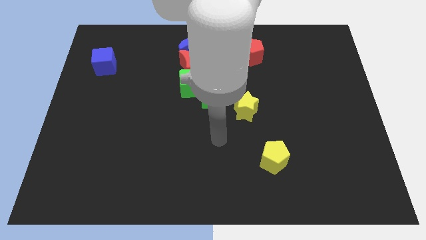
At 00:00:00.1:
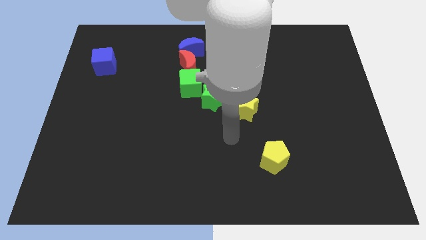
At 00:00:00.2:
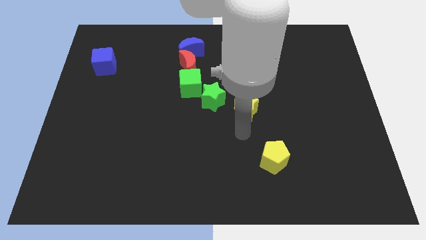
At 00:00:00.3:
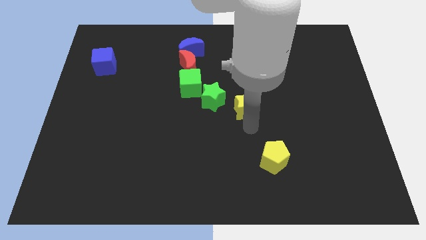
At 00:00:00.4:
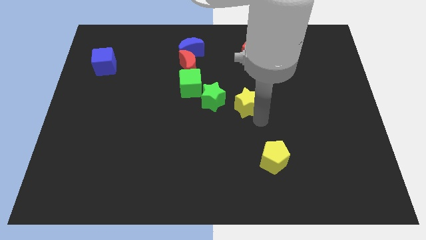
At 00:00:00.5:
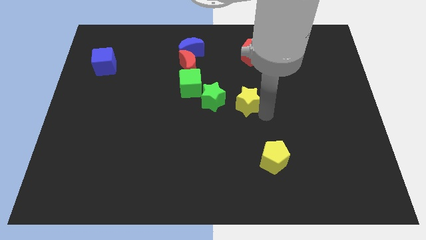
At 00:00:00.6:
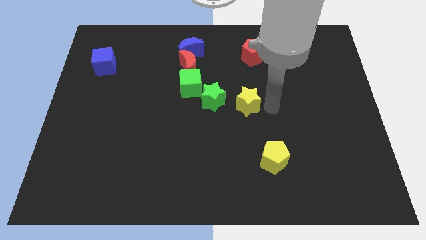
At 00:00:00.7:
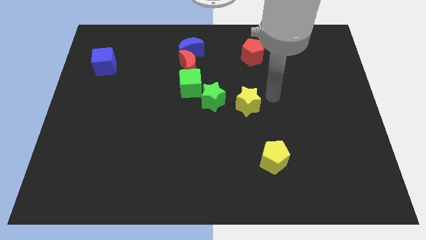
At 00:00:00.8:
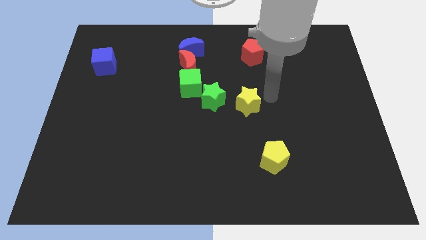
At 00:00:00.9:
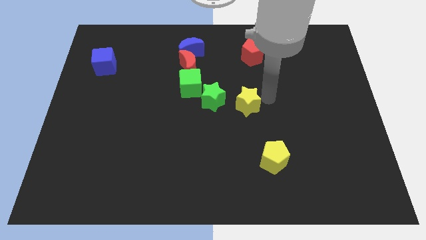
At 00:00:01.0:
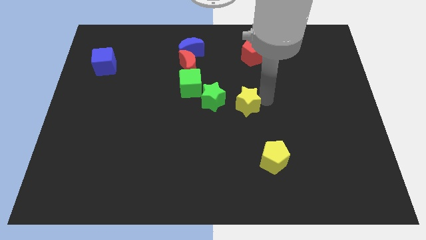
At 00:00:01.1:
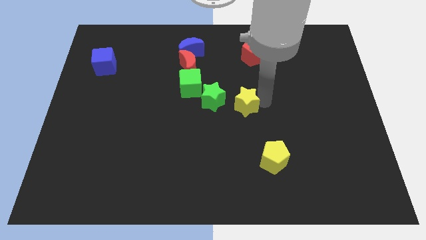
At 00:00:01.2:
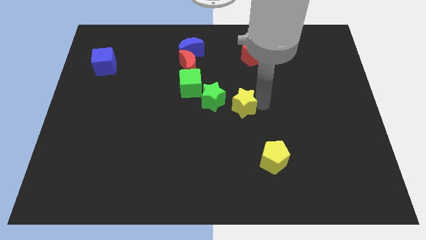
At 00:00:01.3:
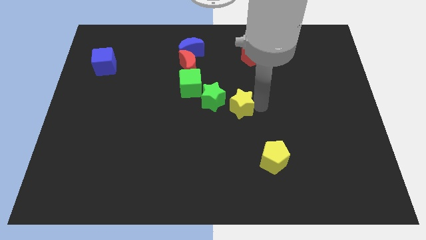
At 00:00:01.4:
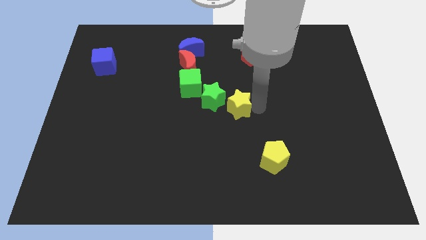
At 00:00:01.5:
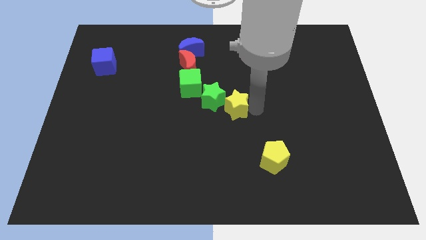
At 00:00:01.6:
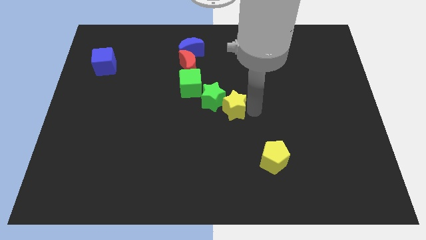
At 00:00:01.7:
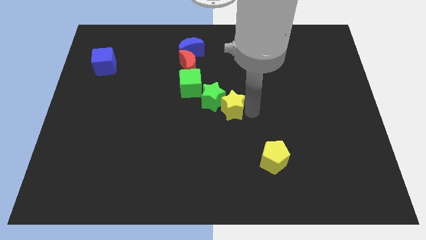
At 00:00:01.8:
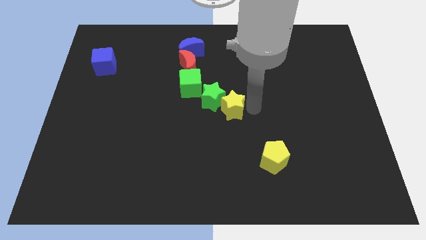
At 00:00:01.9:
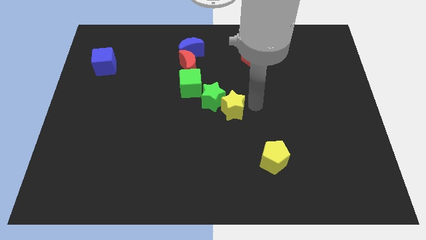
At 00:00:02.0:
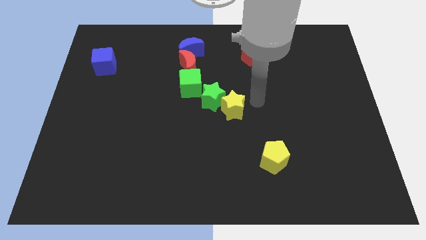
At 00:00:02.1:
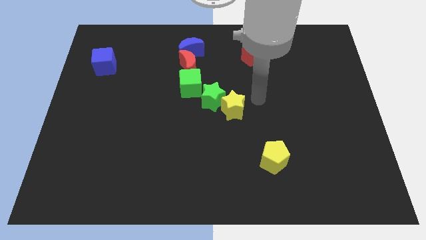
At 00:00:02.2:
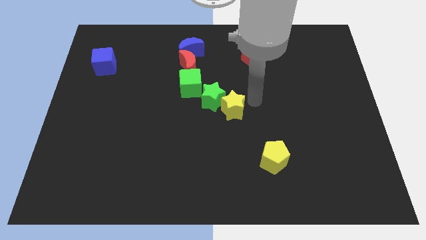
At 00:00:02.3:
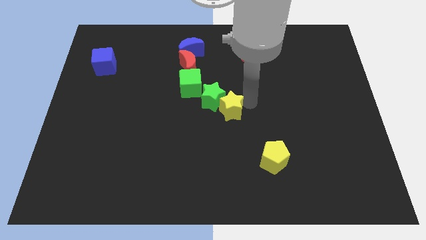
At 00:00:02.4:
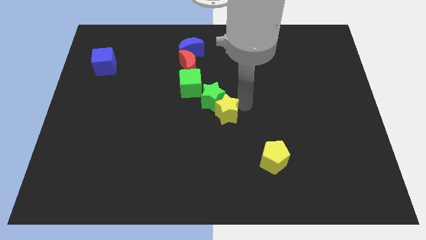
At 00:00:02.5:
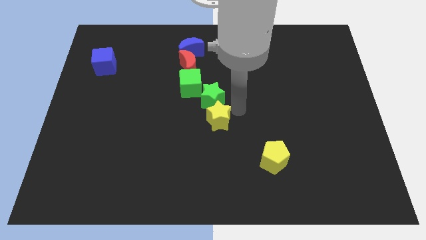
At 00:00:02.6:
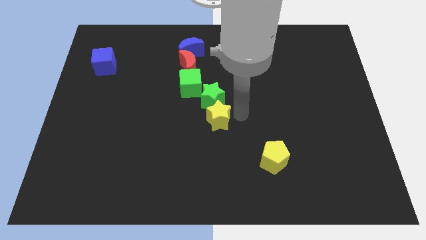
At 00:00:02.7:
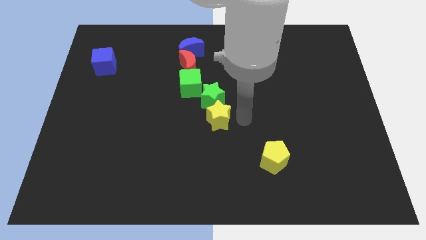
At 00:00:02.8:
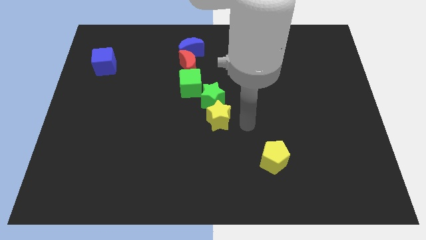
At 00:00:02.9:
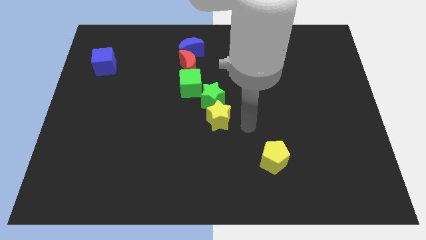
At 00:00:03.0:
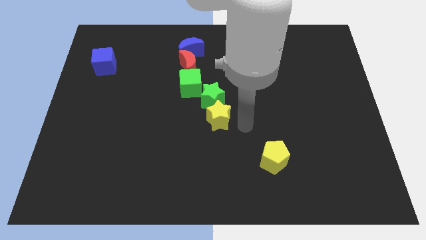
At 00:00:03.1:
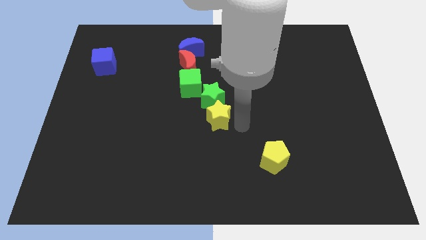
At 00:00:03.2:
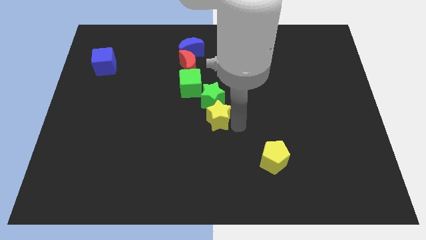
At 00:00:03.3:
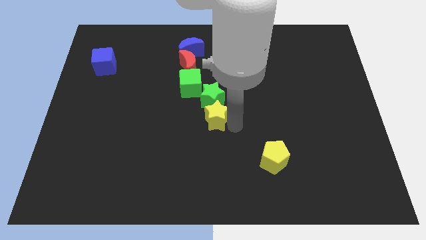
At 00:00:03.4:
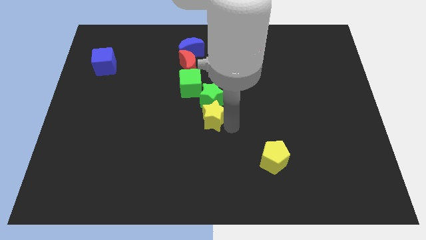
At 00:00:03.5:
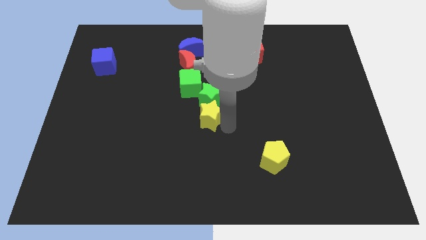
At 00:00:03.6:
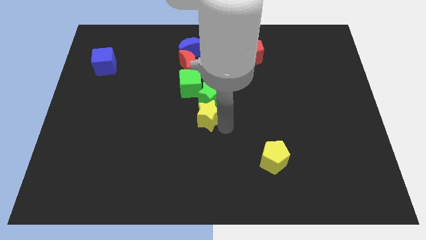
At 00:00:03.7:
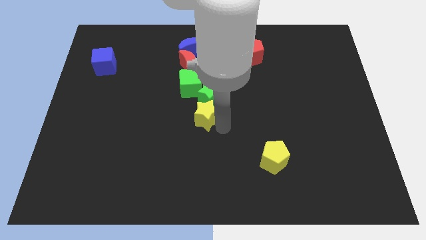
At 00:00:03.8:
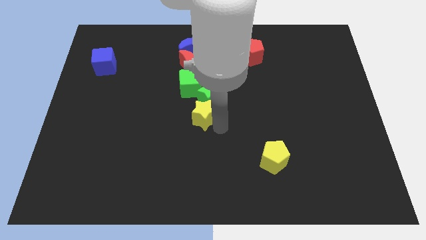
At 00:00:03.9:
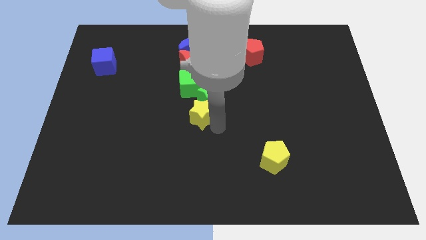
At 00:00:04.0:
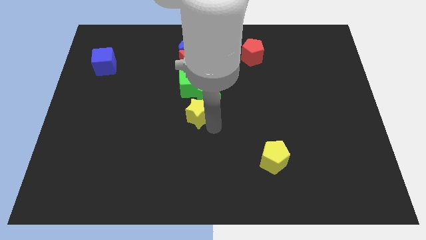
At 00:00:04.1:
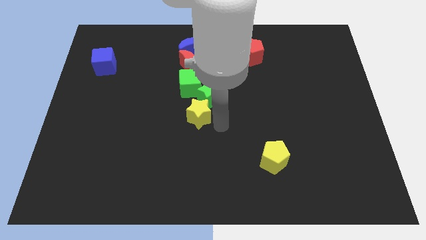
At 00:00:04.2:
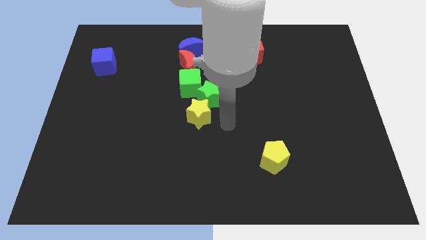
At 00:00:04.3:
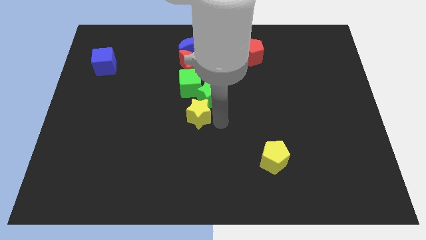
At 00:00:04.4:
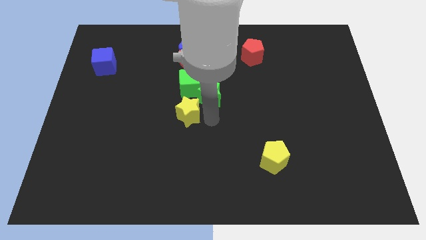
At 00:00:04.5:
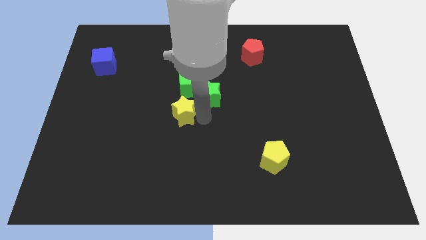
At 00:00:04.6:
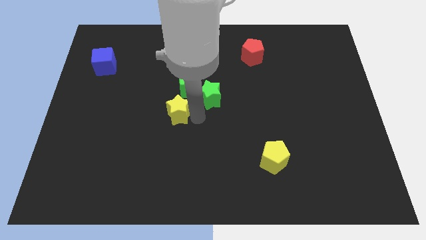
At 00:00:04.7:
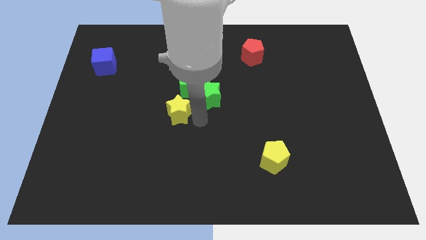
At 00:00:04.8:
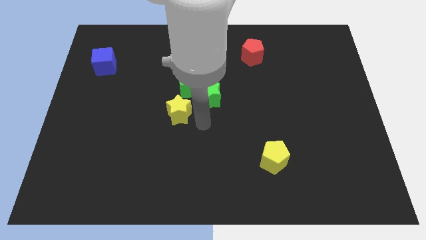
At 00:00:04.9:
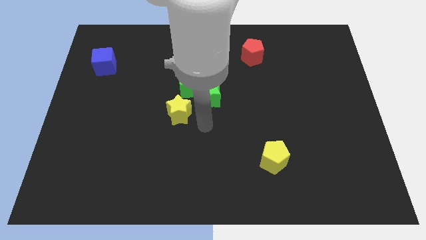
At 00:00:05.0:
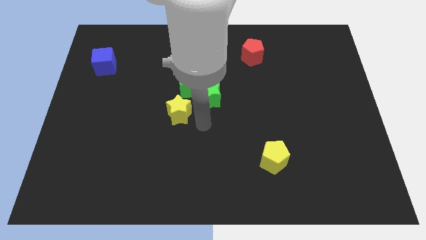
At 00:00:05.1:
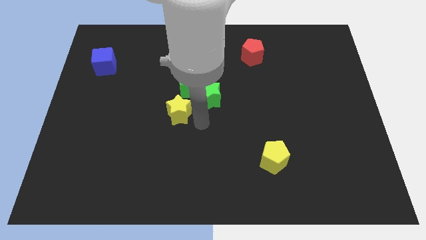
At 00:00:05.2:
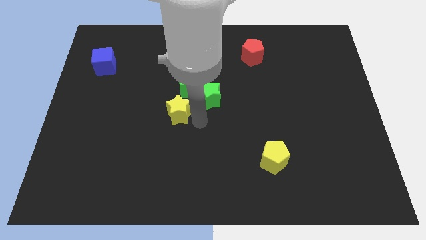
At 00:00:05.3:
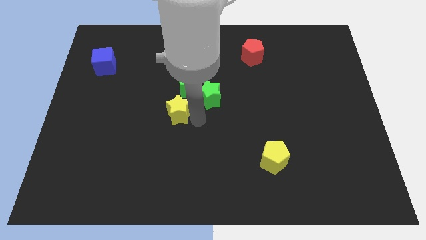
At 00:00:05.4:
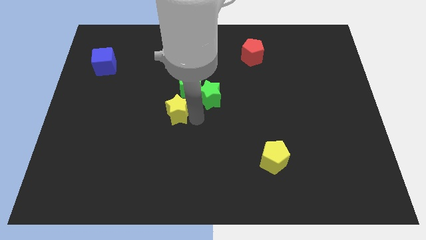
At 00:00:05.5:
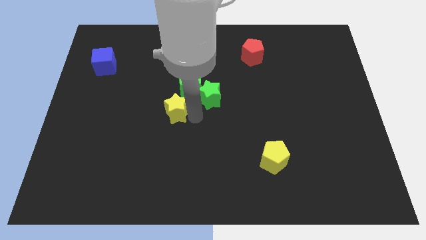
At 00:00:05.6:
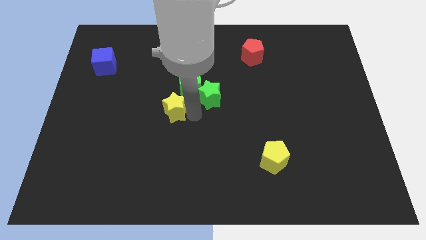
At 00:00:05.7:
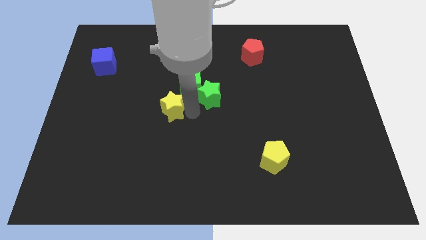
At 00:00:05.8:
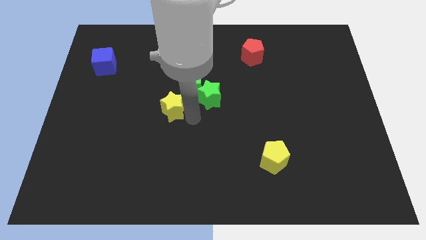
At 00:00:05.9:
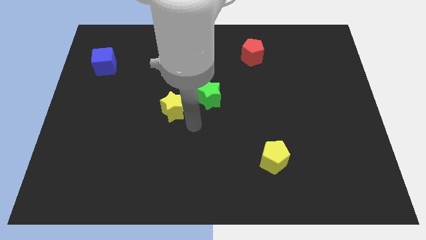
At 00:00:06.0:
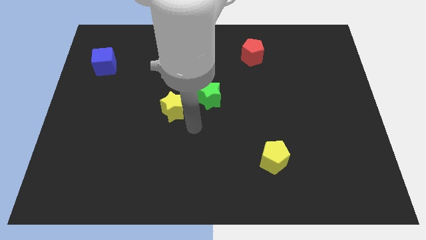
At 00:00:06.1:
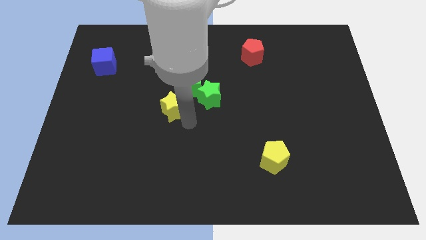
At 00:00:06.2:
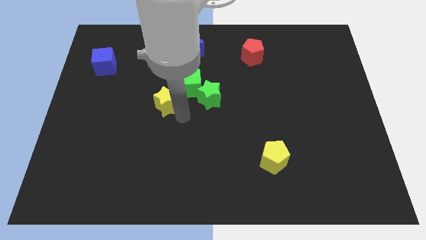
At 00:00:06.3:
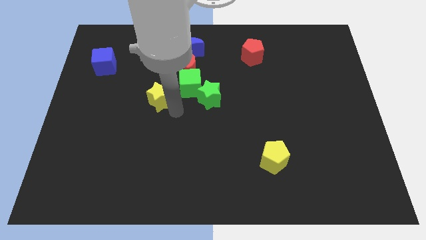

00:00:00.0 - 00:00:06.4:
move the yellow star to the left of the green cube

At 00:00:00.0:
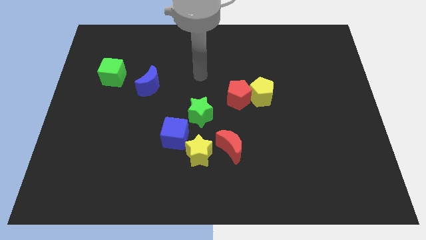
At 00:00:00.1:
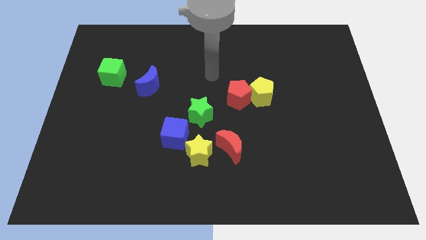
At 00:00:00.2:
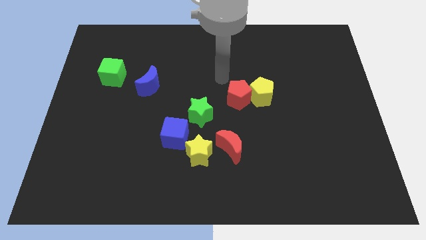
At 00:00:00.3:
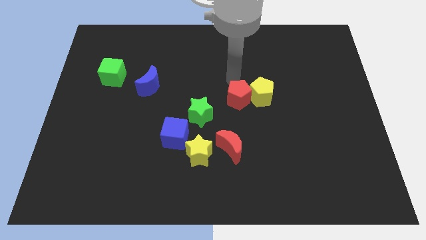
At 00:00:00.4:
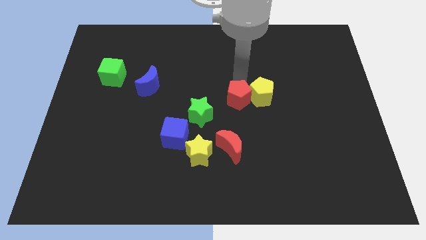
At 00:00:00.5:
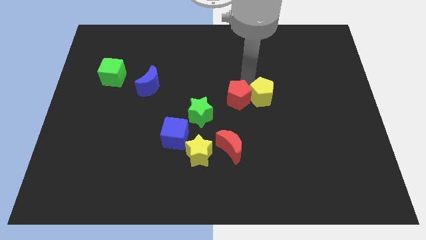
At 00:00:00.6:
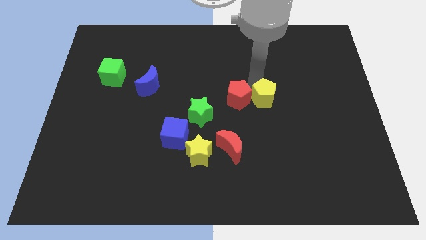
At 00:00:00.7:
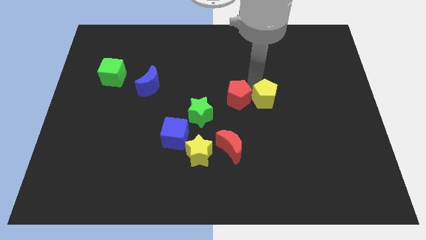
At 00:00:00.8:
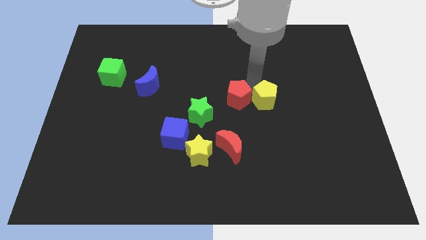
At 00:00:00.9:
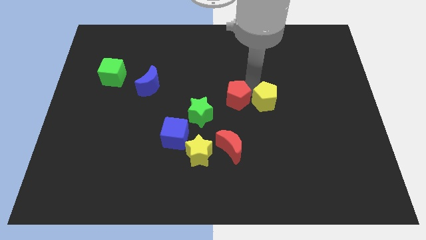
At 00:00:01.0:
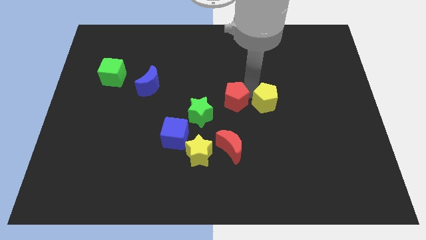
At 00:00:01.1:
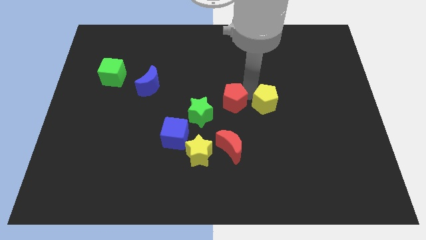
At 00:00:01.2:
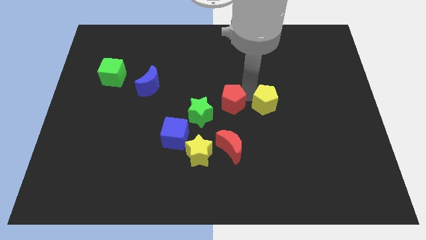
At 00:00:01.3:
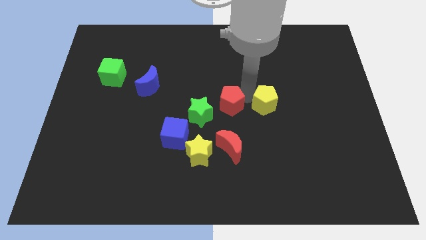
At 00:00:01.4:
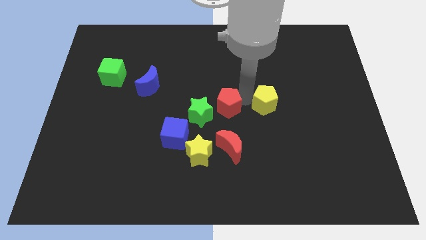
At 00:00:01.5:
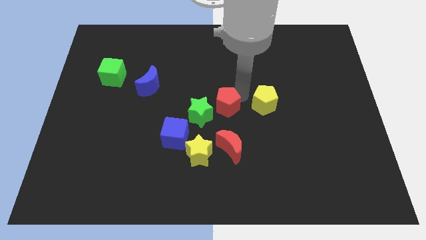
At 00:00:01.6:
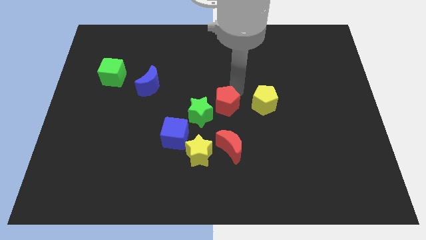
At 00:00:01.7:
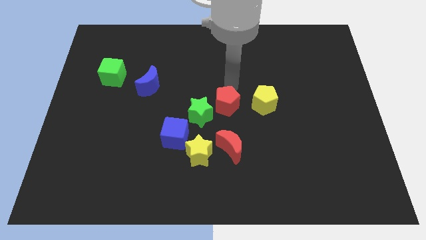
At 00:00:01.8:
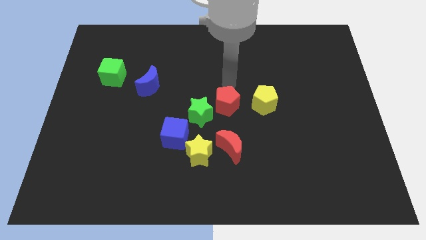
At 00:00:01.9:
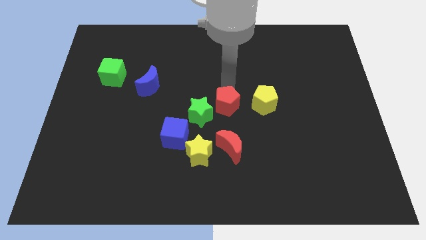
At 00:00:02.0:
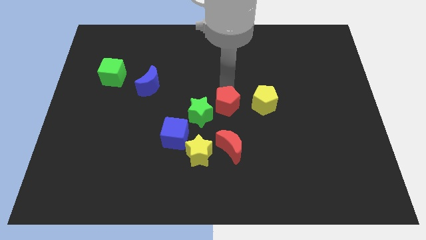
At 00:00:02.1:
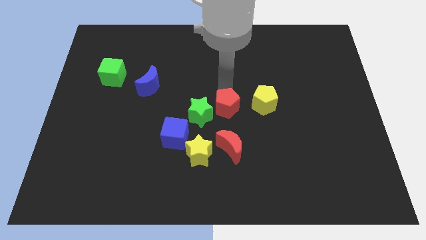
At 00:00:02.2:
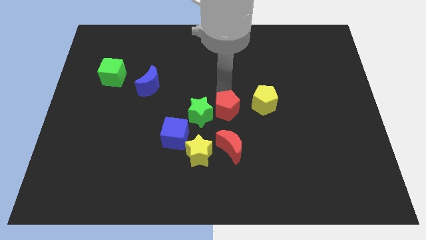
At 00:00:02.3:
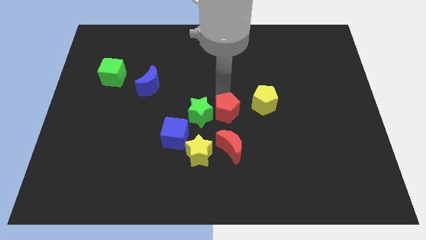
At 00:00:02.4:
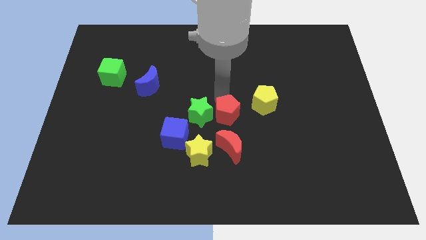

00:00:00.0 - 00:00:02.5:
push the red pentagon diagonally up and to the right of the yellow star
